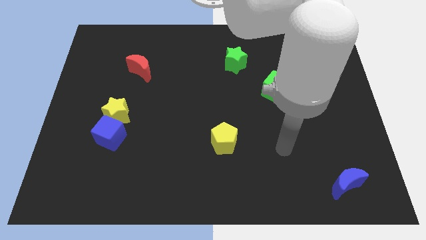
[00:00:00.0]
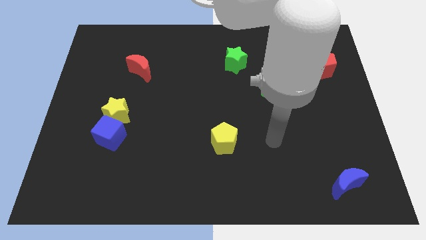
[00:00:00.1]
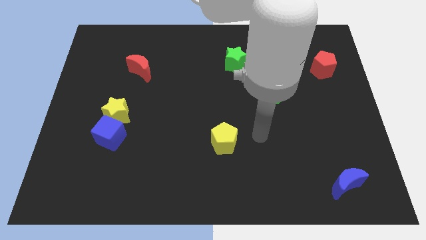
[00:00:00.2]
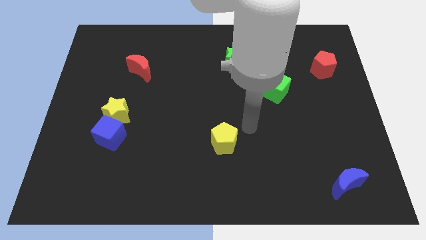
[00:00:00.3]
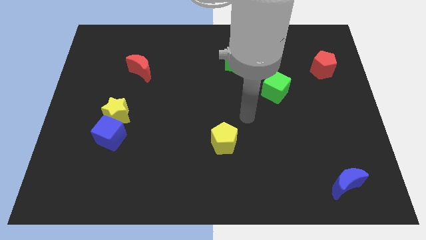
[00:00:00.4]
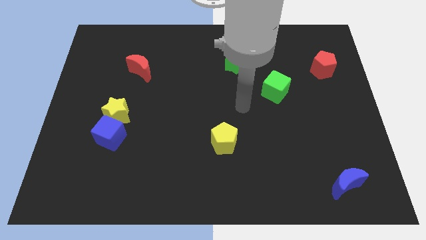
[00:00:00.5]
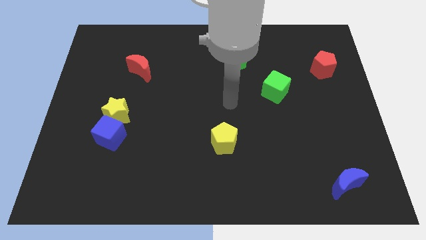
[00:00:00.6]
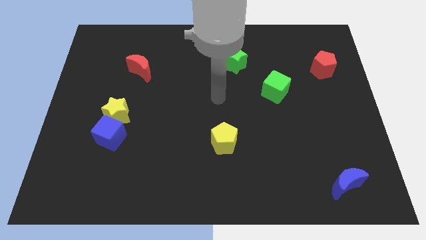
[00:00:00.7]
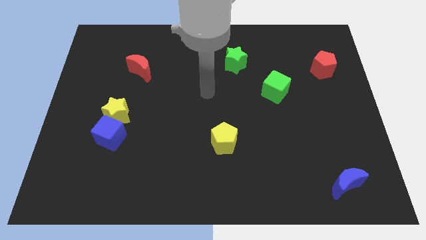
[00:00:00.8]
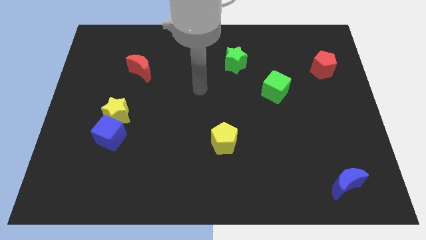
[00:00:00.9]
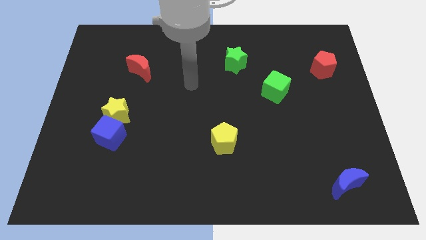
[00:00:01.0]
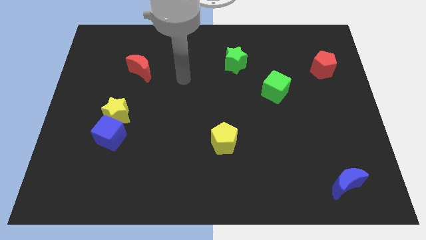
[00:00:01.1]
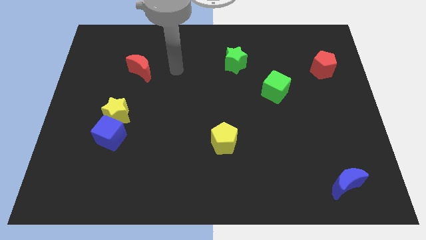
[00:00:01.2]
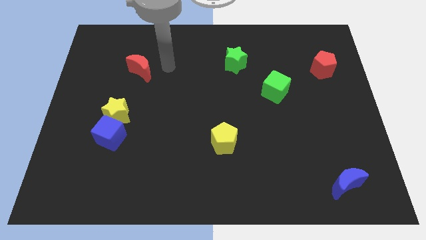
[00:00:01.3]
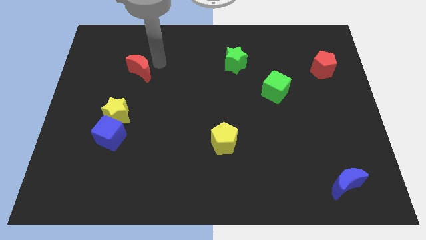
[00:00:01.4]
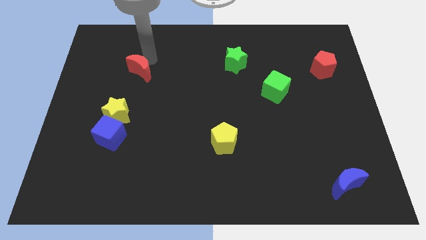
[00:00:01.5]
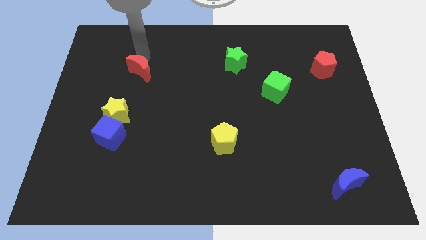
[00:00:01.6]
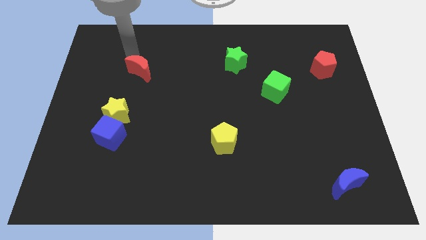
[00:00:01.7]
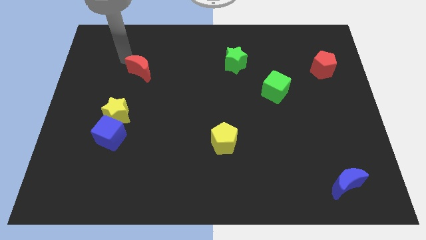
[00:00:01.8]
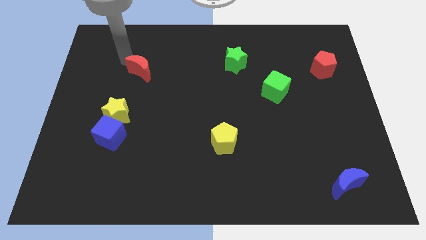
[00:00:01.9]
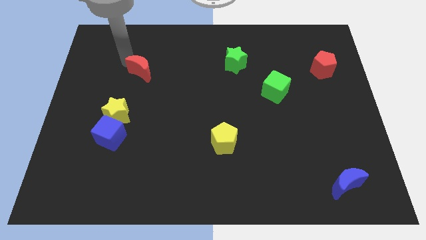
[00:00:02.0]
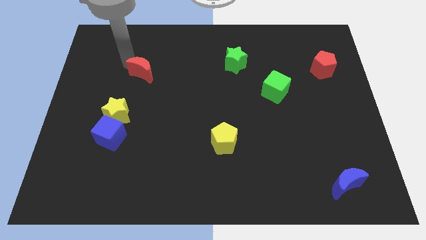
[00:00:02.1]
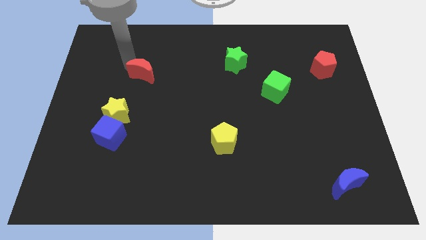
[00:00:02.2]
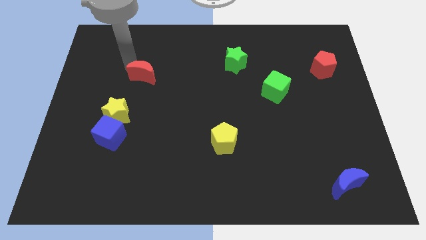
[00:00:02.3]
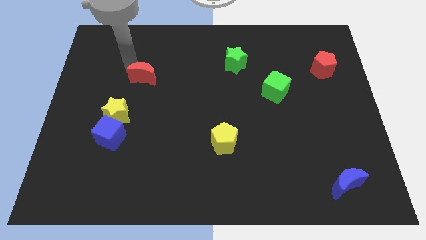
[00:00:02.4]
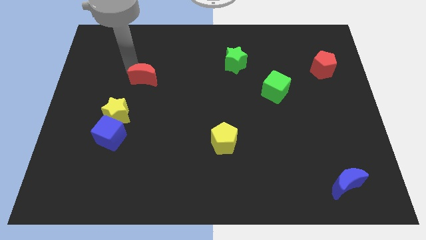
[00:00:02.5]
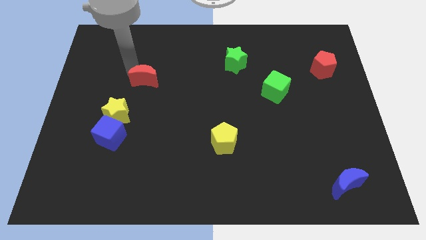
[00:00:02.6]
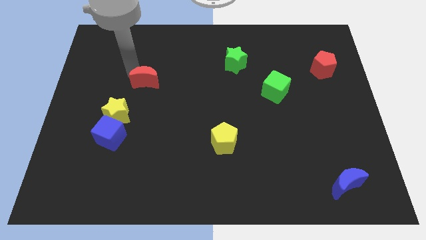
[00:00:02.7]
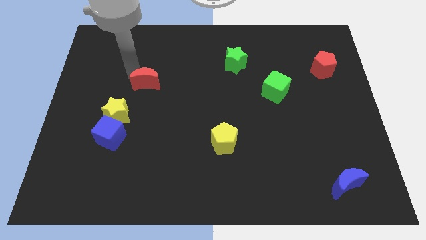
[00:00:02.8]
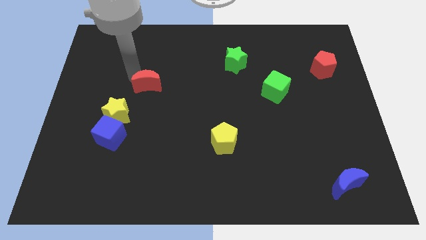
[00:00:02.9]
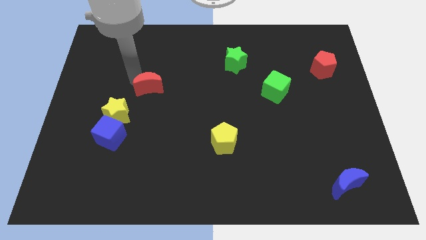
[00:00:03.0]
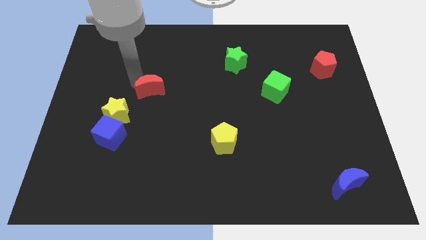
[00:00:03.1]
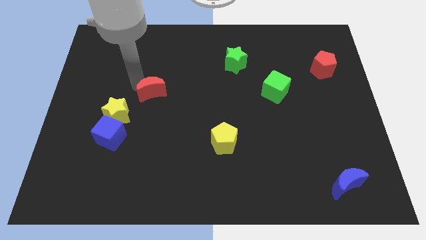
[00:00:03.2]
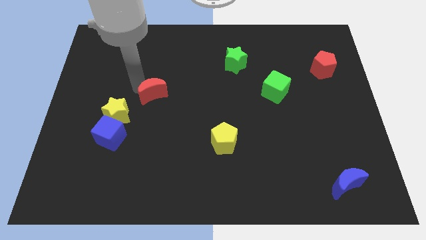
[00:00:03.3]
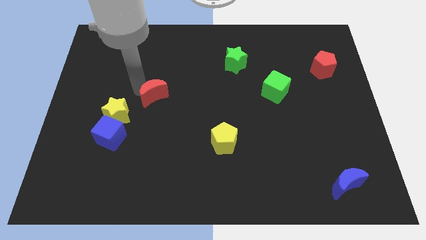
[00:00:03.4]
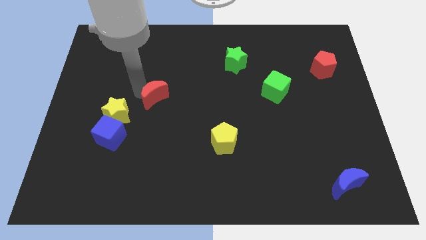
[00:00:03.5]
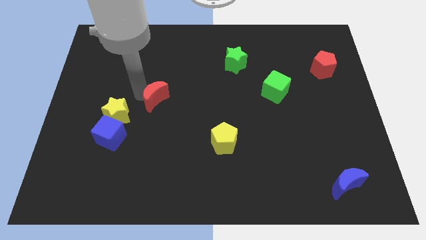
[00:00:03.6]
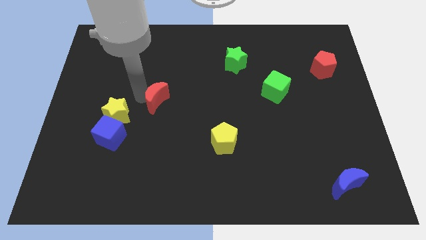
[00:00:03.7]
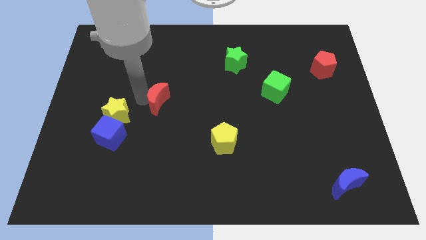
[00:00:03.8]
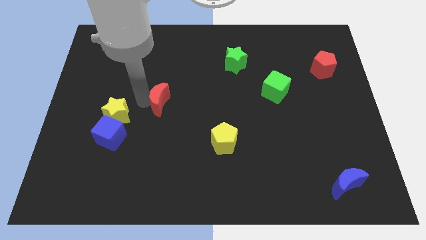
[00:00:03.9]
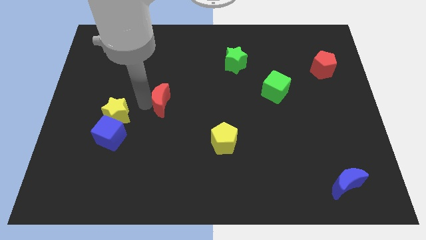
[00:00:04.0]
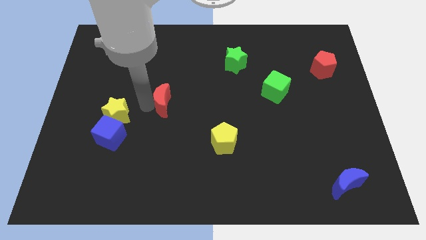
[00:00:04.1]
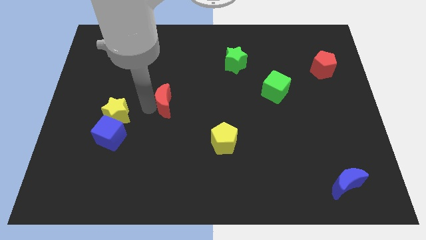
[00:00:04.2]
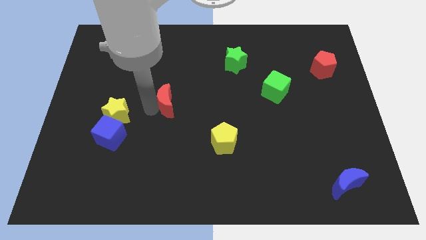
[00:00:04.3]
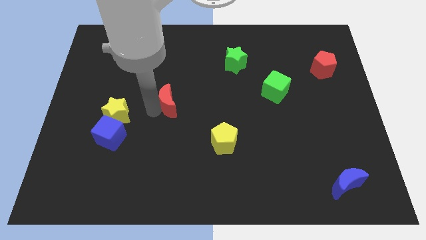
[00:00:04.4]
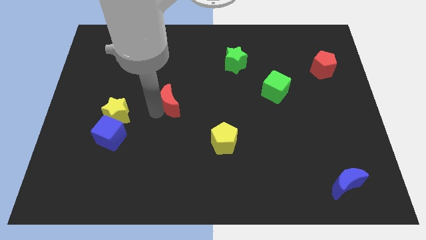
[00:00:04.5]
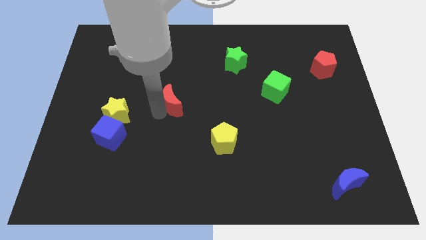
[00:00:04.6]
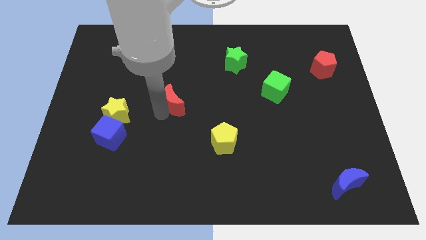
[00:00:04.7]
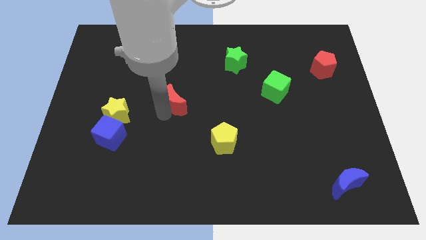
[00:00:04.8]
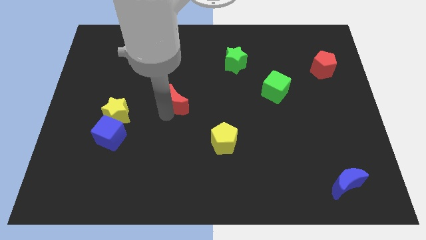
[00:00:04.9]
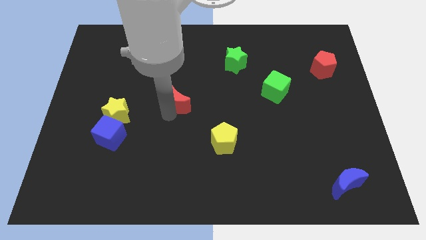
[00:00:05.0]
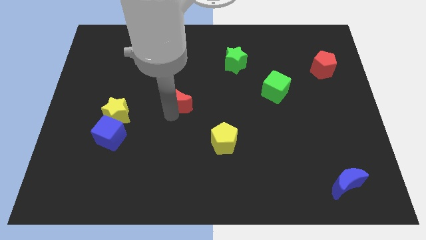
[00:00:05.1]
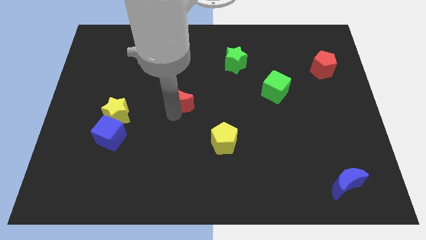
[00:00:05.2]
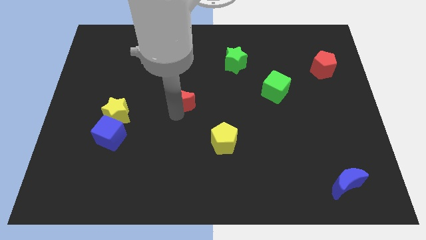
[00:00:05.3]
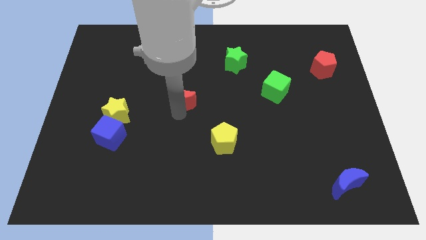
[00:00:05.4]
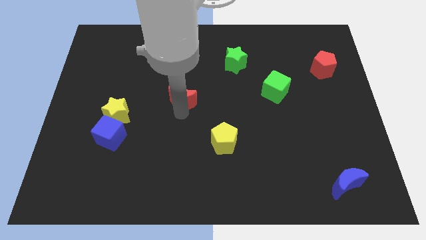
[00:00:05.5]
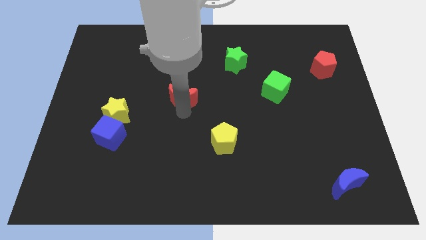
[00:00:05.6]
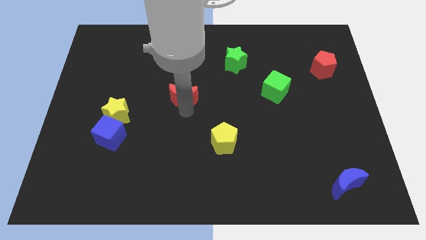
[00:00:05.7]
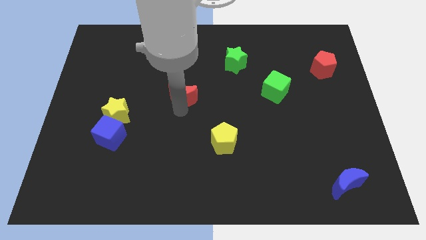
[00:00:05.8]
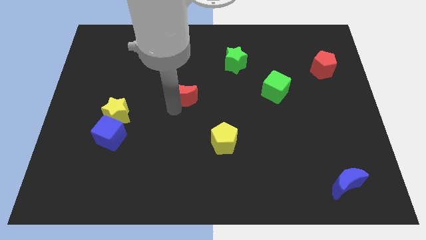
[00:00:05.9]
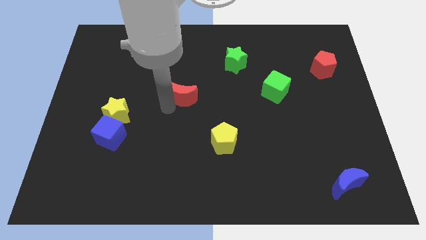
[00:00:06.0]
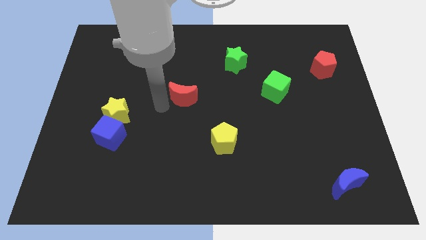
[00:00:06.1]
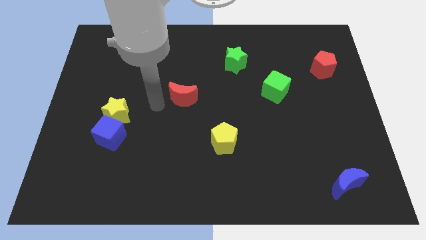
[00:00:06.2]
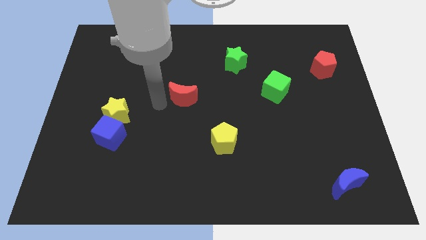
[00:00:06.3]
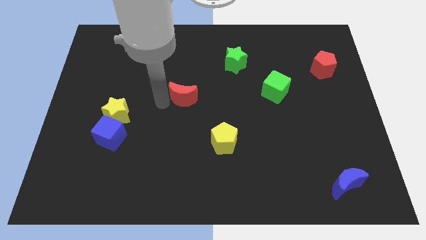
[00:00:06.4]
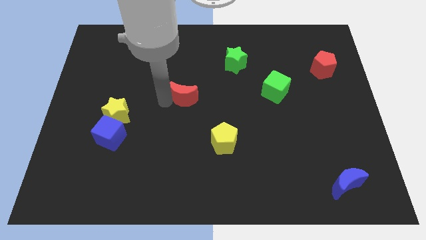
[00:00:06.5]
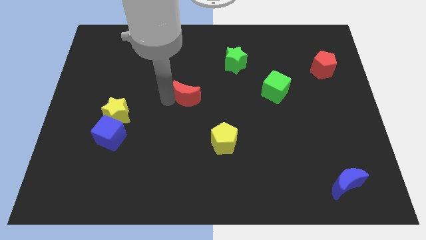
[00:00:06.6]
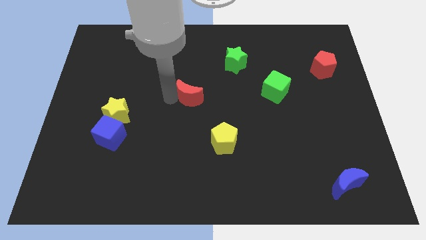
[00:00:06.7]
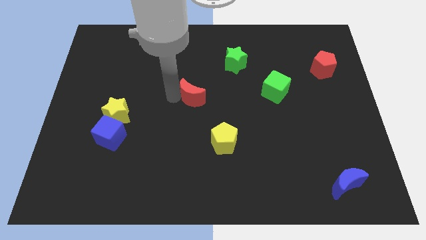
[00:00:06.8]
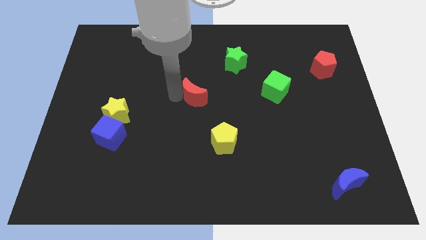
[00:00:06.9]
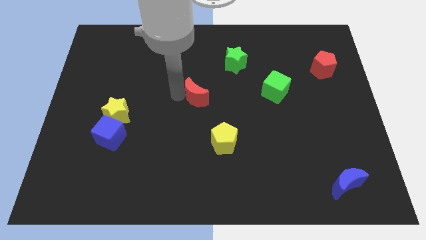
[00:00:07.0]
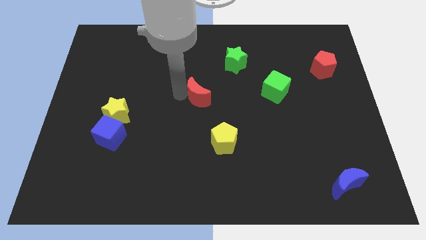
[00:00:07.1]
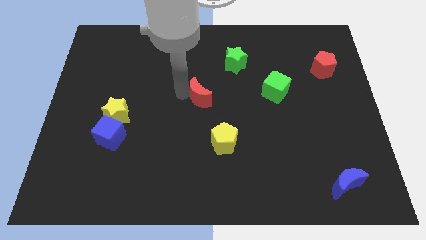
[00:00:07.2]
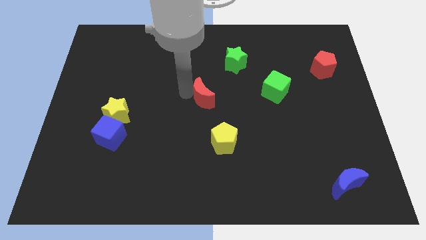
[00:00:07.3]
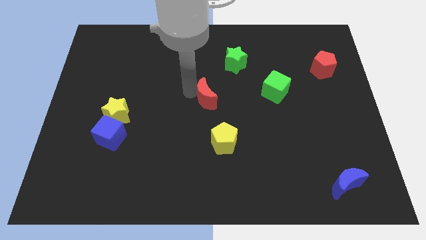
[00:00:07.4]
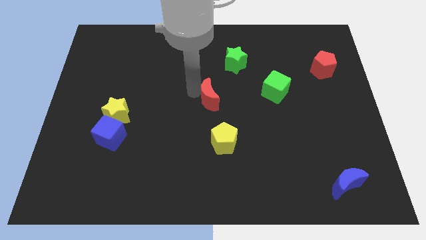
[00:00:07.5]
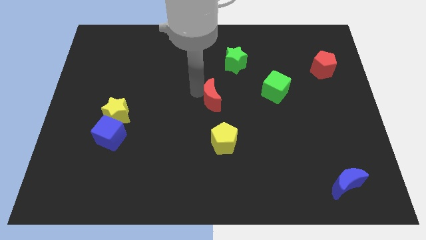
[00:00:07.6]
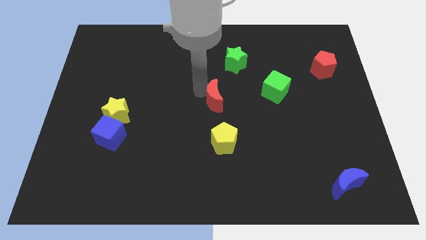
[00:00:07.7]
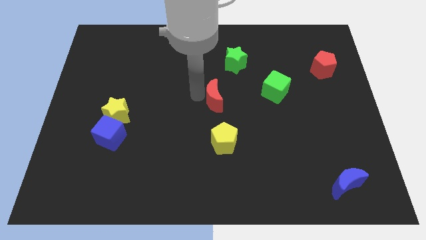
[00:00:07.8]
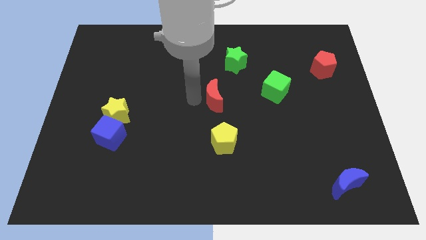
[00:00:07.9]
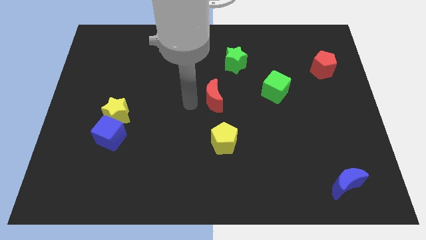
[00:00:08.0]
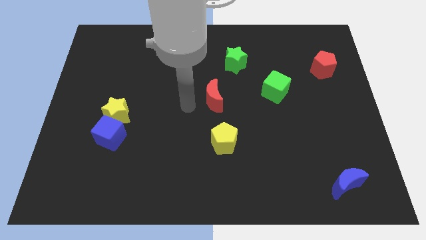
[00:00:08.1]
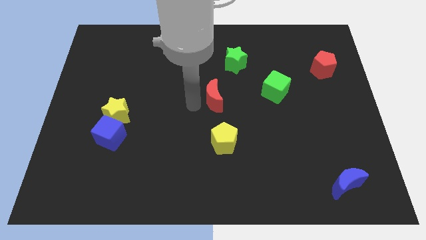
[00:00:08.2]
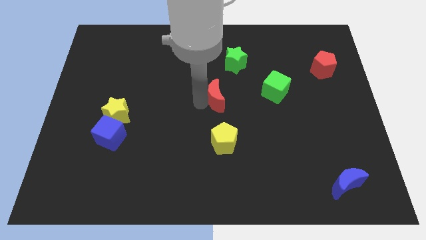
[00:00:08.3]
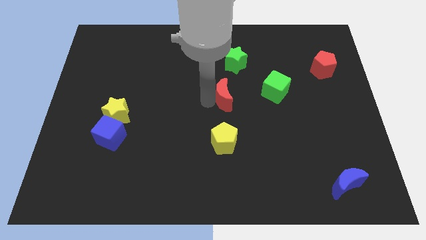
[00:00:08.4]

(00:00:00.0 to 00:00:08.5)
put the red moon to the bottom of the green star
